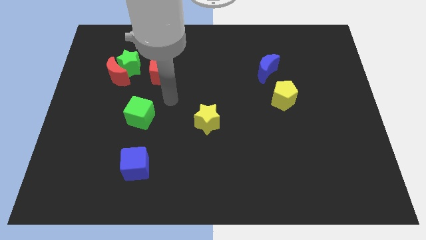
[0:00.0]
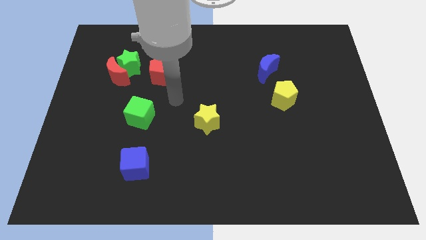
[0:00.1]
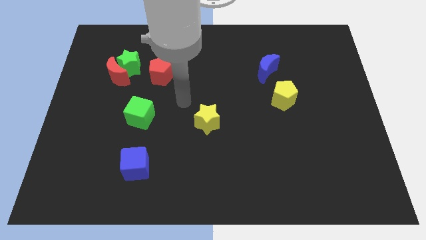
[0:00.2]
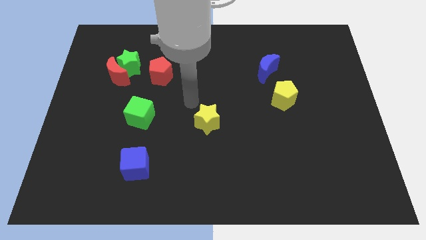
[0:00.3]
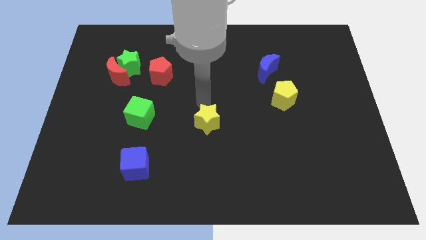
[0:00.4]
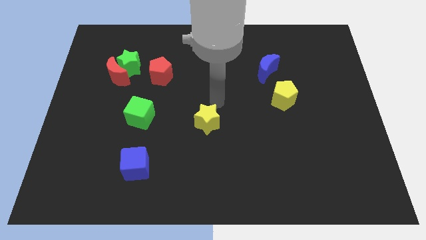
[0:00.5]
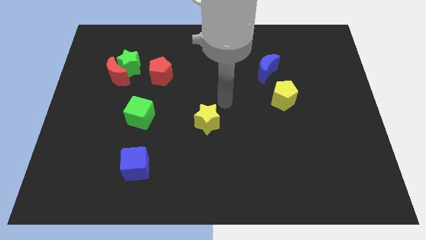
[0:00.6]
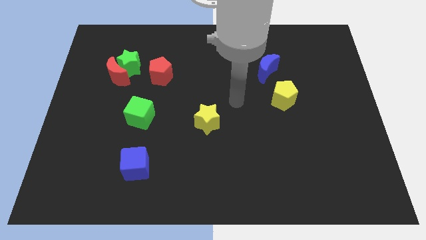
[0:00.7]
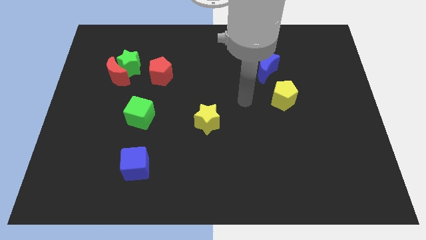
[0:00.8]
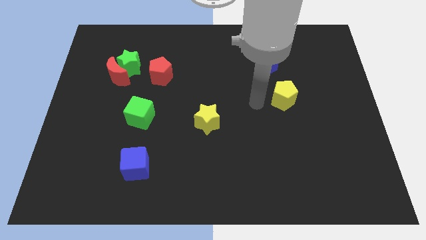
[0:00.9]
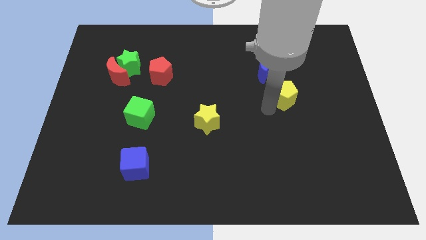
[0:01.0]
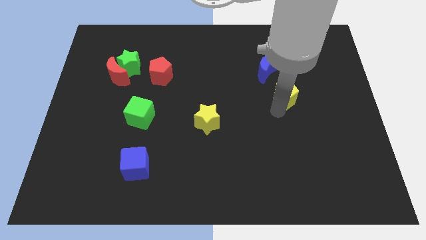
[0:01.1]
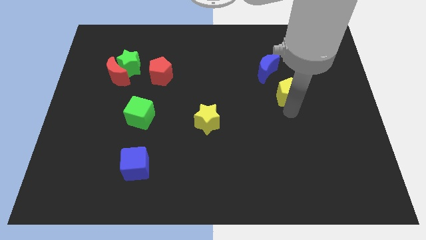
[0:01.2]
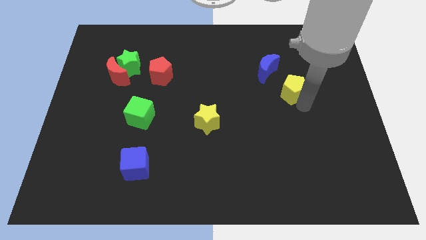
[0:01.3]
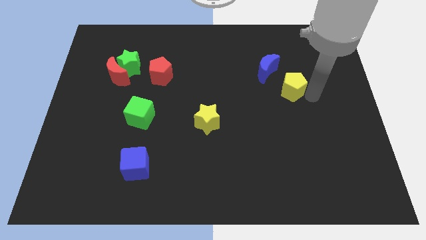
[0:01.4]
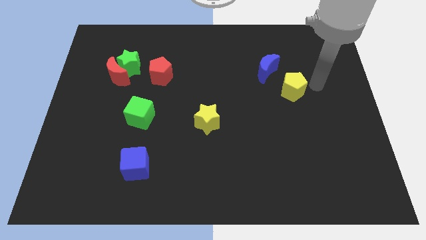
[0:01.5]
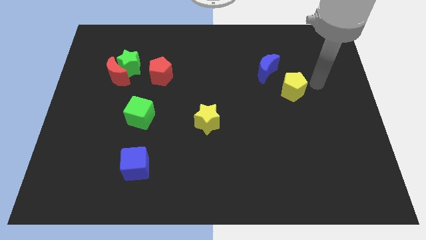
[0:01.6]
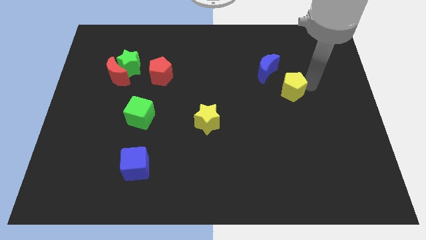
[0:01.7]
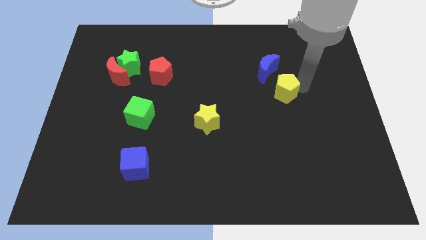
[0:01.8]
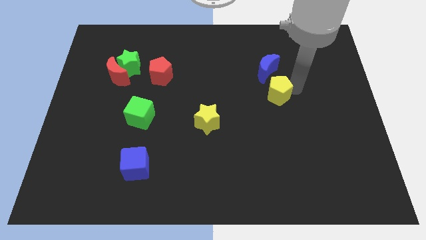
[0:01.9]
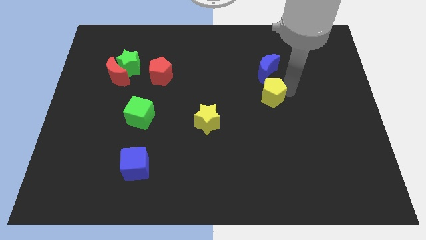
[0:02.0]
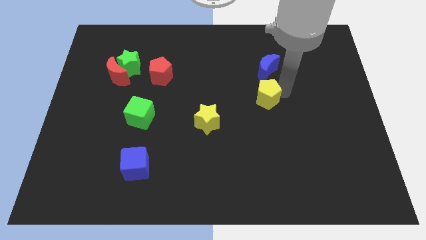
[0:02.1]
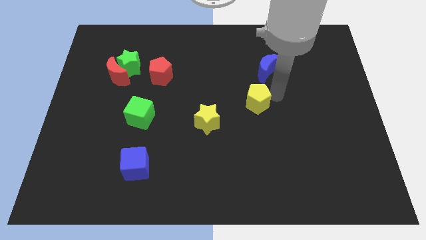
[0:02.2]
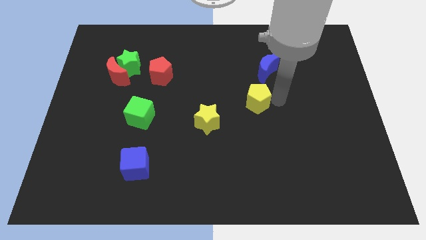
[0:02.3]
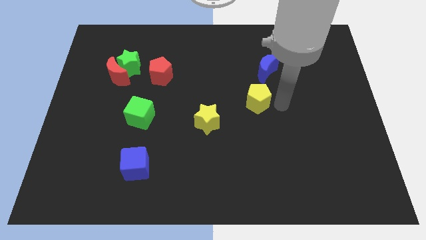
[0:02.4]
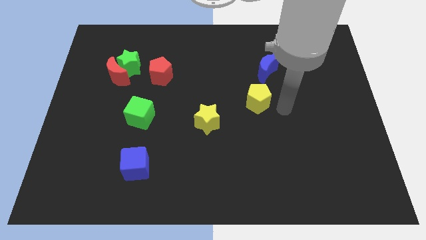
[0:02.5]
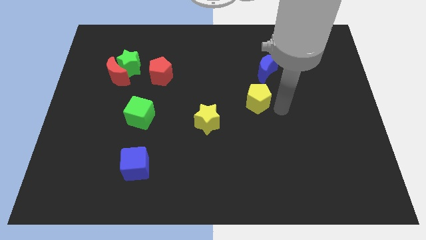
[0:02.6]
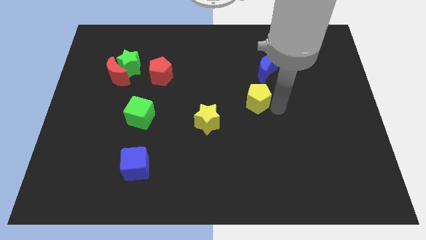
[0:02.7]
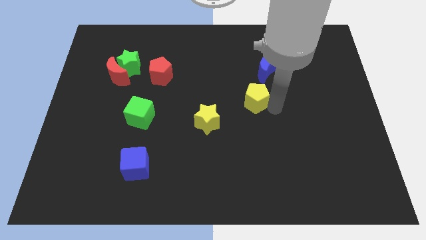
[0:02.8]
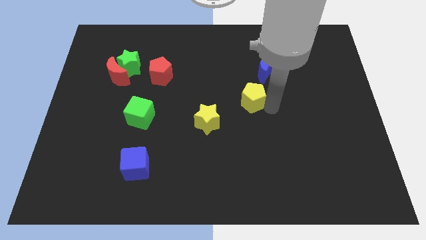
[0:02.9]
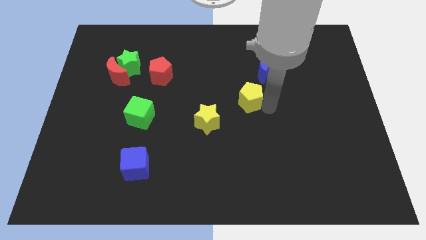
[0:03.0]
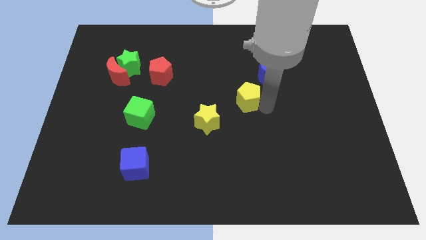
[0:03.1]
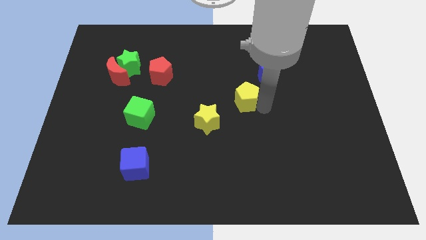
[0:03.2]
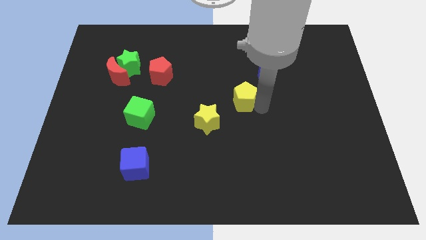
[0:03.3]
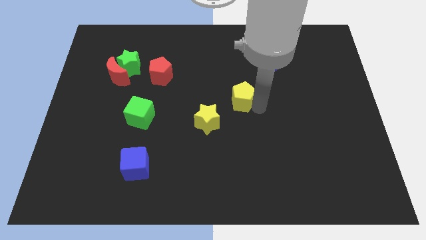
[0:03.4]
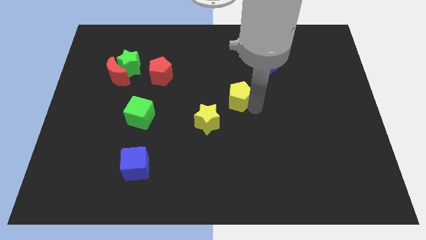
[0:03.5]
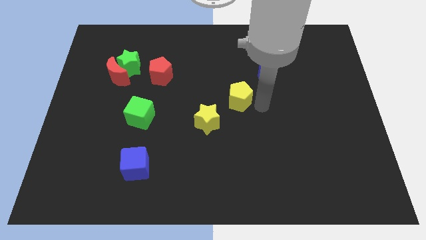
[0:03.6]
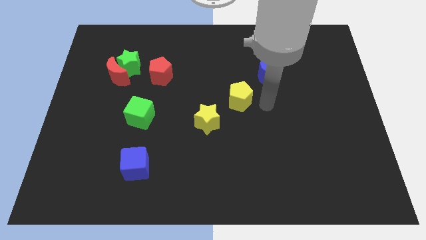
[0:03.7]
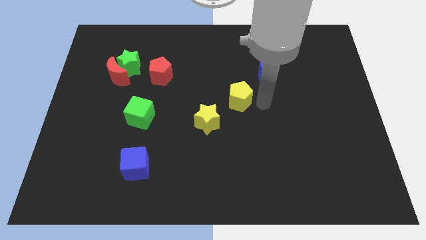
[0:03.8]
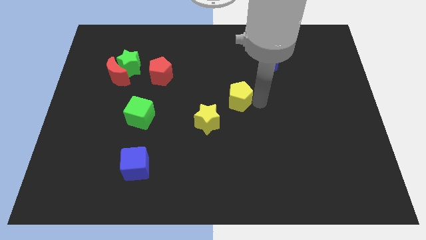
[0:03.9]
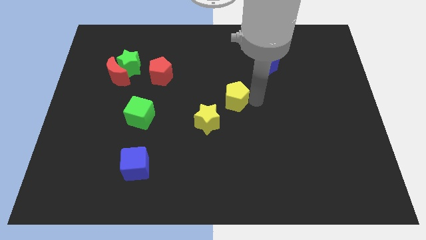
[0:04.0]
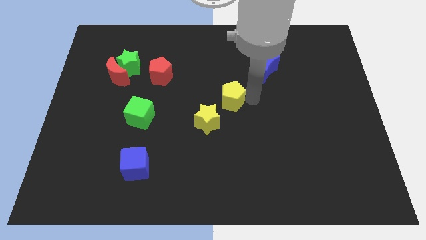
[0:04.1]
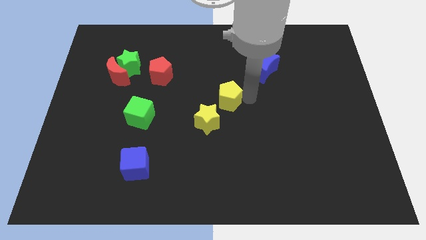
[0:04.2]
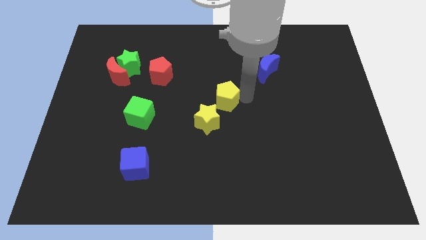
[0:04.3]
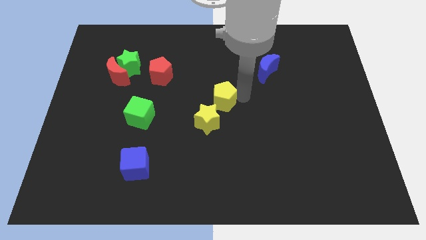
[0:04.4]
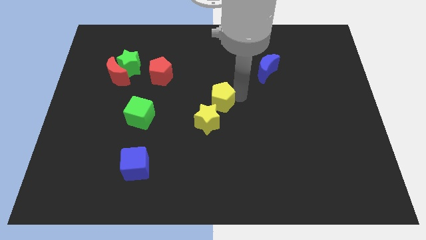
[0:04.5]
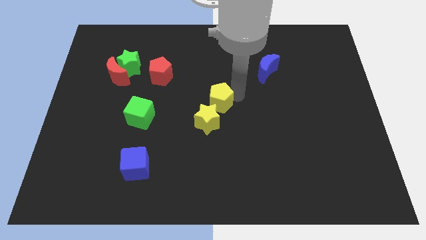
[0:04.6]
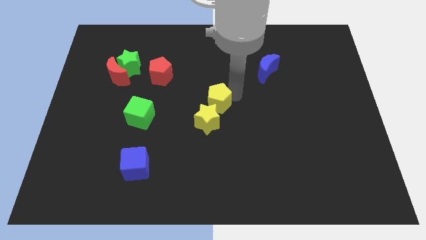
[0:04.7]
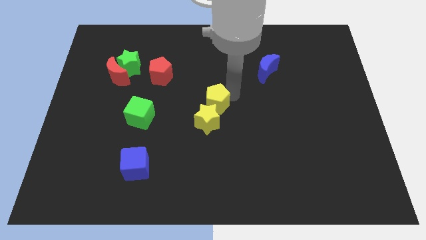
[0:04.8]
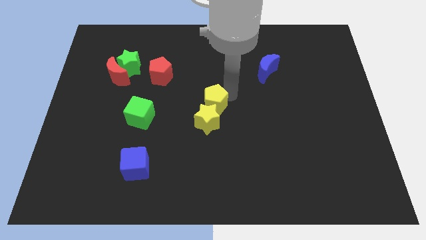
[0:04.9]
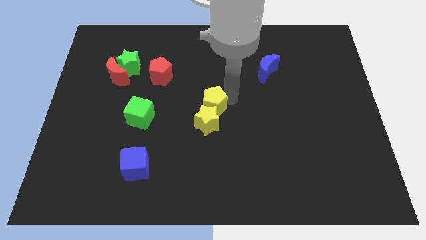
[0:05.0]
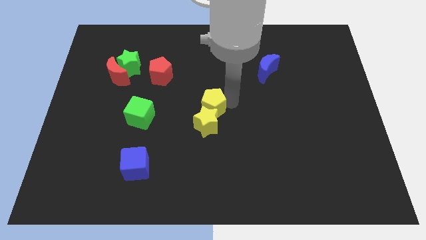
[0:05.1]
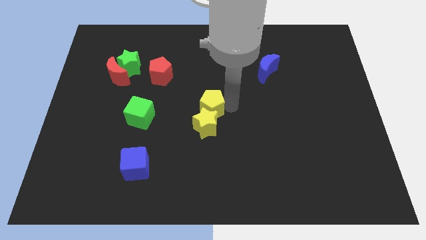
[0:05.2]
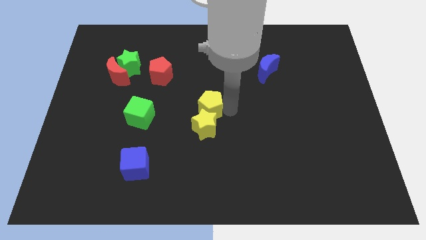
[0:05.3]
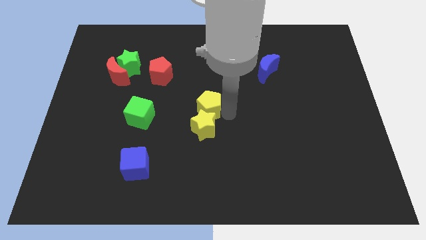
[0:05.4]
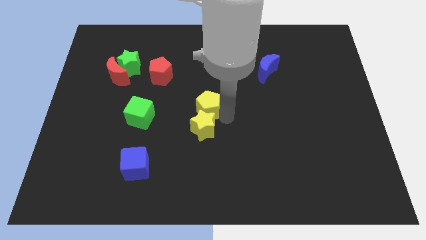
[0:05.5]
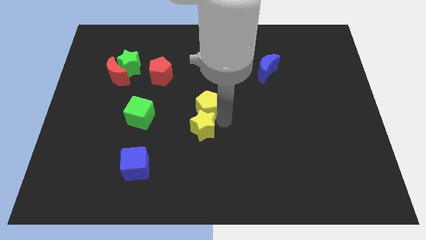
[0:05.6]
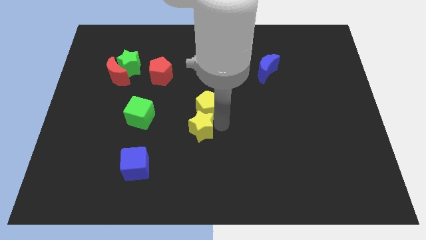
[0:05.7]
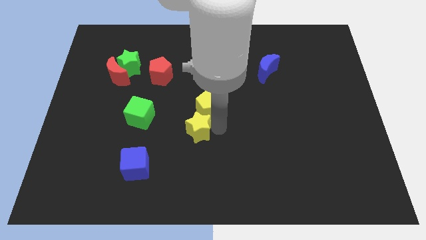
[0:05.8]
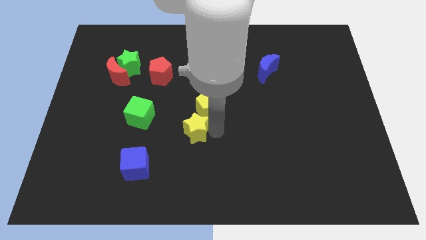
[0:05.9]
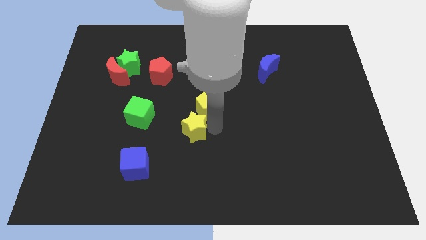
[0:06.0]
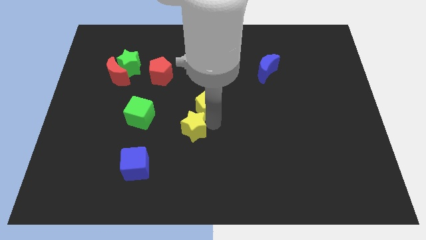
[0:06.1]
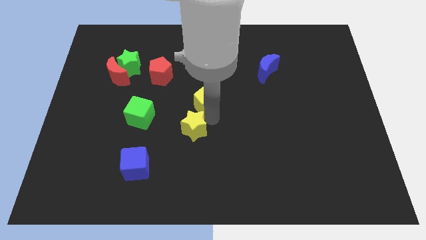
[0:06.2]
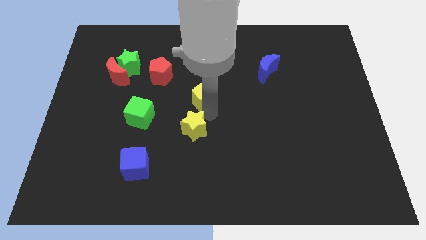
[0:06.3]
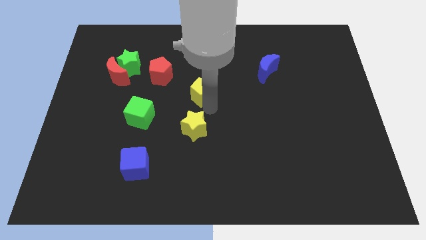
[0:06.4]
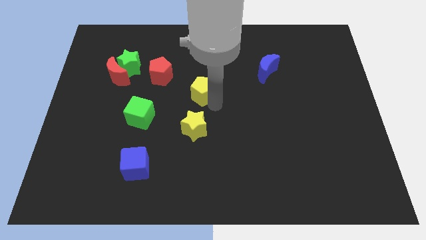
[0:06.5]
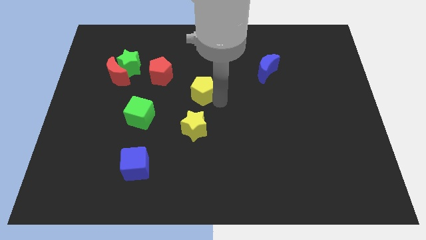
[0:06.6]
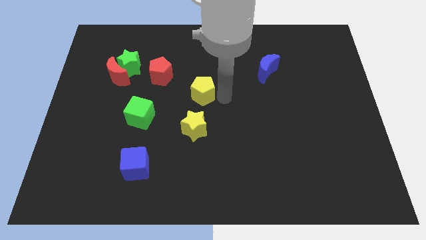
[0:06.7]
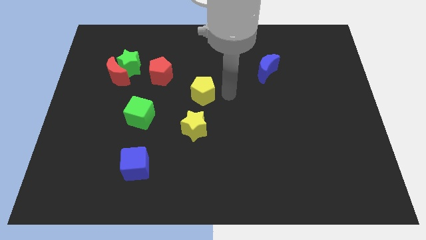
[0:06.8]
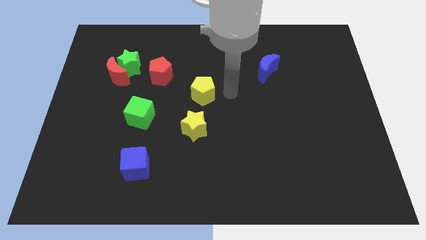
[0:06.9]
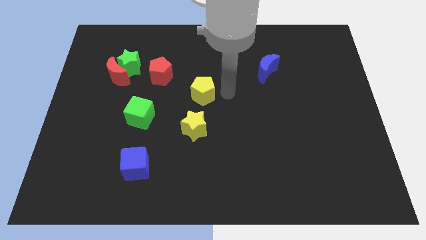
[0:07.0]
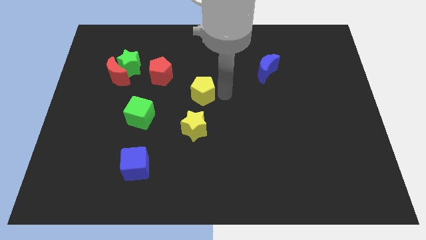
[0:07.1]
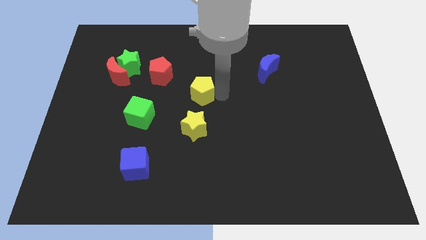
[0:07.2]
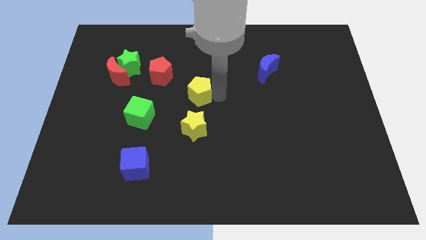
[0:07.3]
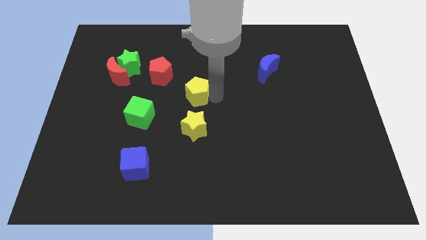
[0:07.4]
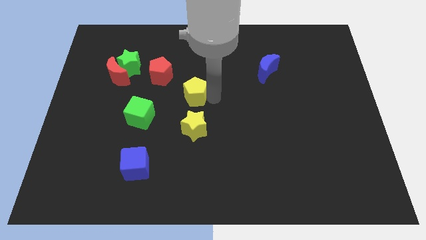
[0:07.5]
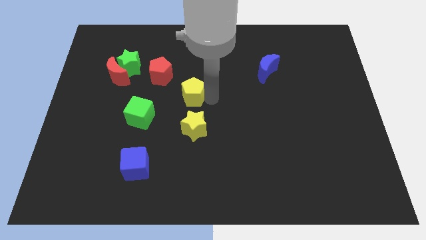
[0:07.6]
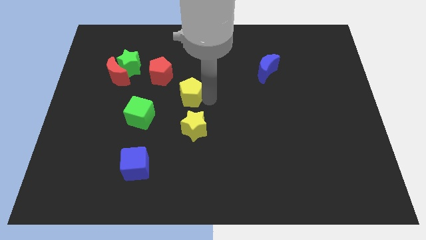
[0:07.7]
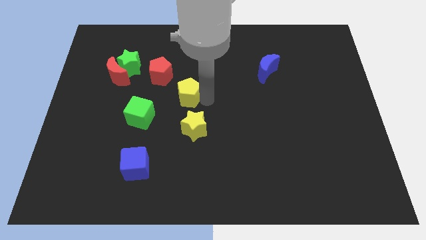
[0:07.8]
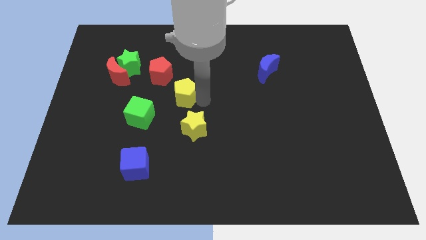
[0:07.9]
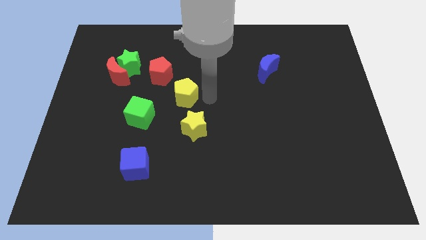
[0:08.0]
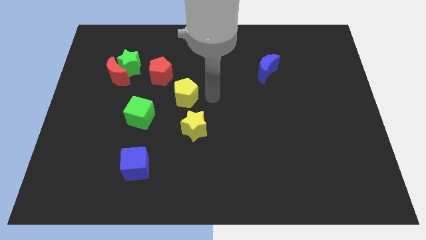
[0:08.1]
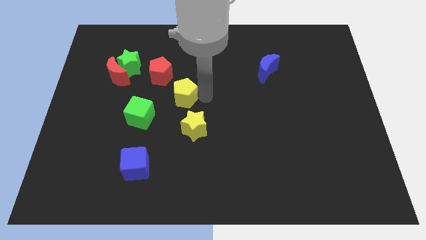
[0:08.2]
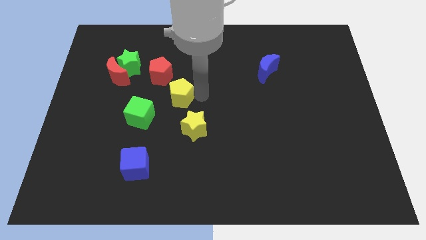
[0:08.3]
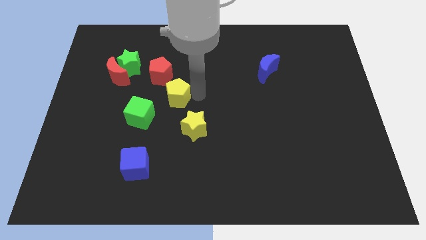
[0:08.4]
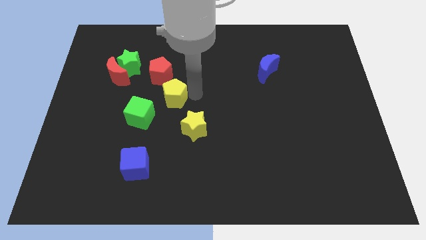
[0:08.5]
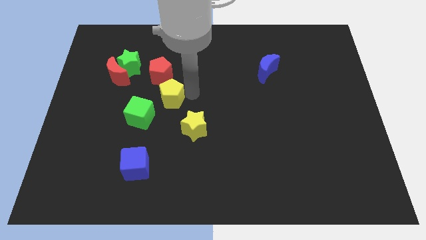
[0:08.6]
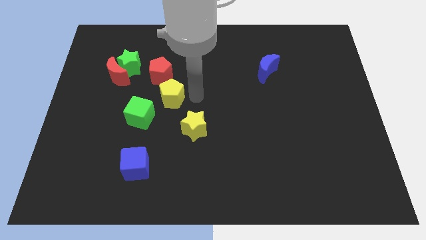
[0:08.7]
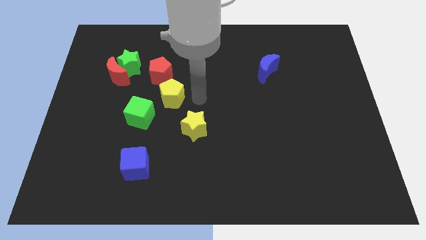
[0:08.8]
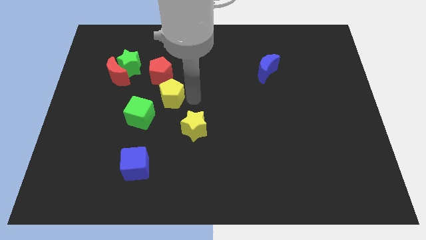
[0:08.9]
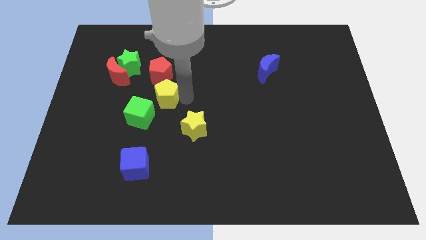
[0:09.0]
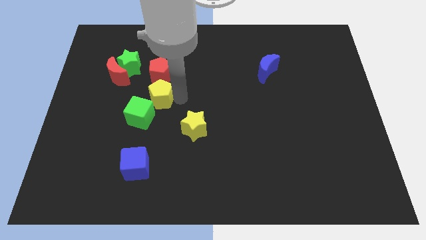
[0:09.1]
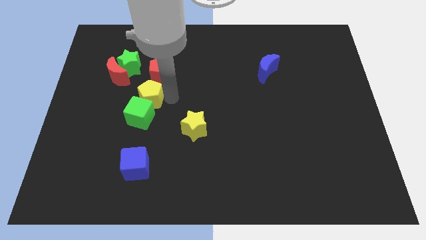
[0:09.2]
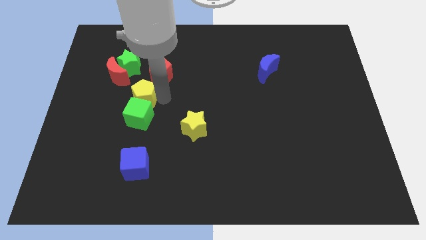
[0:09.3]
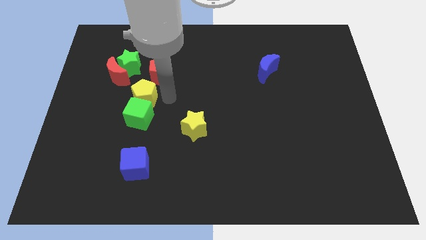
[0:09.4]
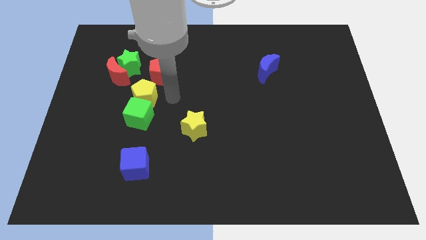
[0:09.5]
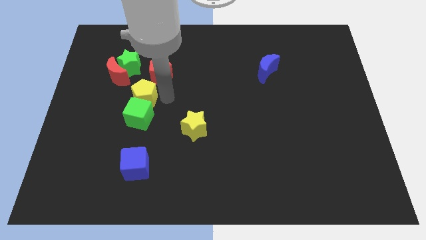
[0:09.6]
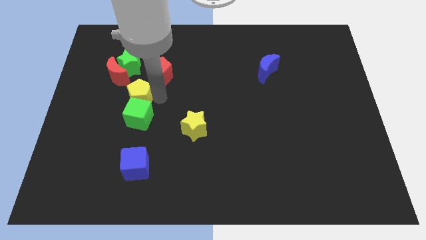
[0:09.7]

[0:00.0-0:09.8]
put the yellow pentagon to the bottom of the green star
